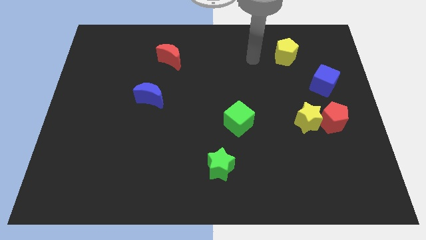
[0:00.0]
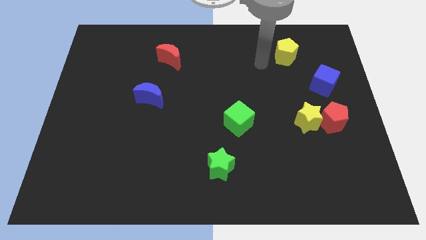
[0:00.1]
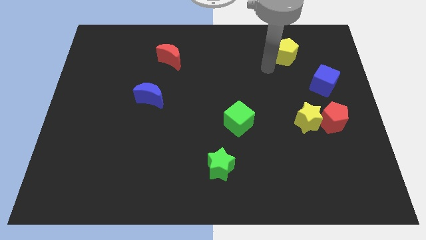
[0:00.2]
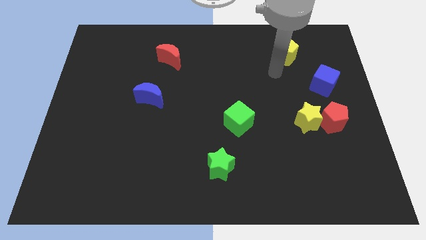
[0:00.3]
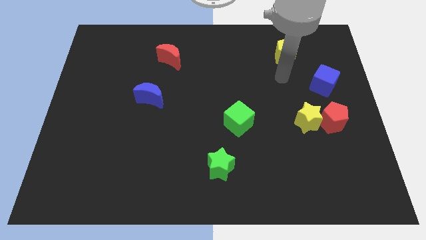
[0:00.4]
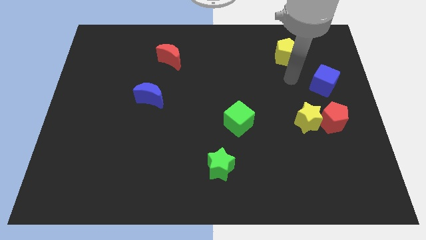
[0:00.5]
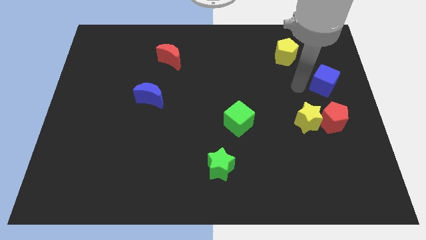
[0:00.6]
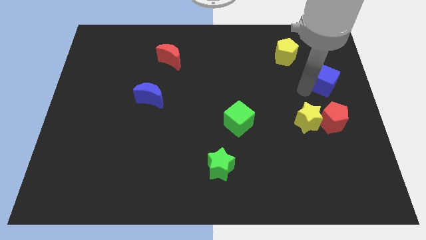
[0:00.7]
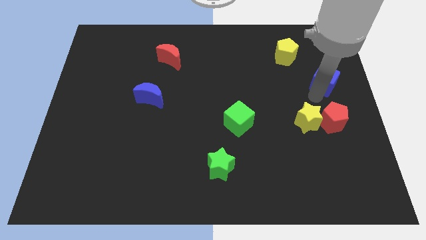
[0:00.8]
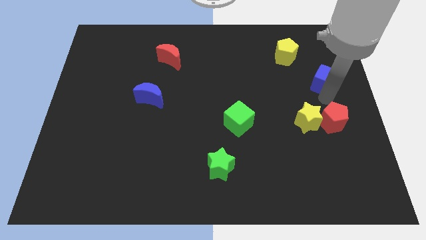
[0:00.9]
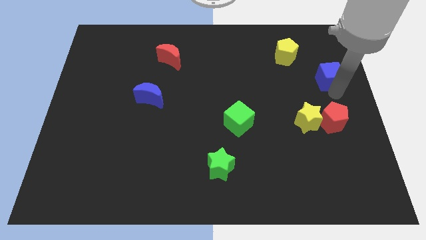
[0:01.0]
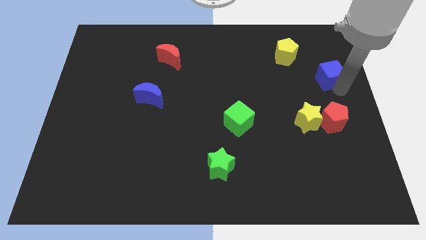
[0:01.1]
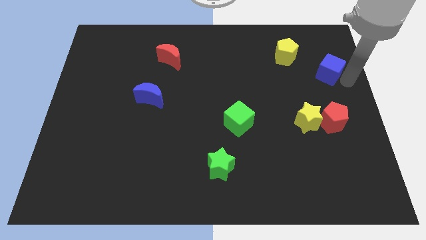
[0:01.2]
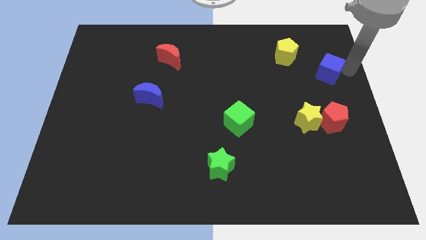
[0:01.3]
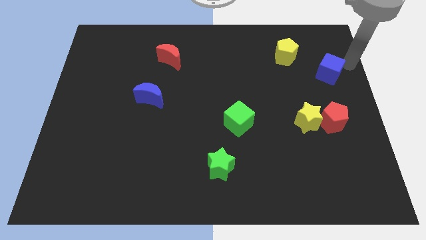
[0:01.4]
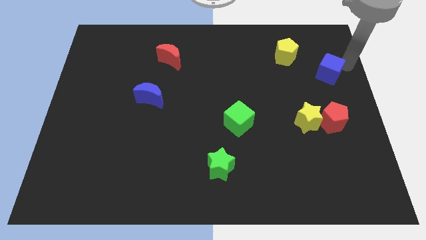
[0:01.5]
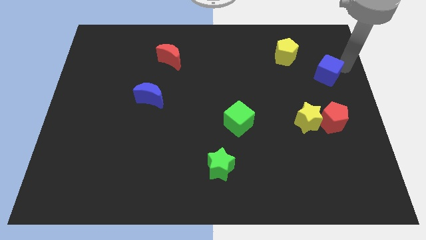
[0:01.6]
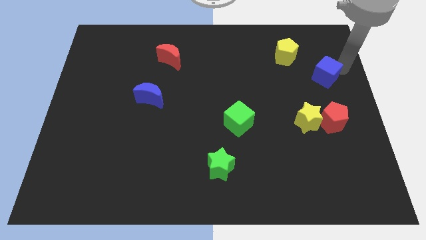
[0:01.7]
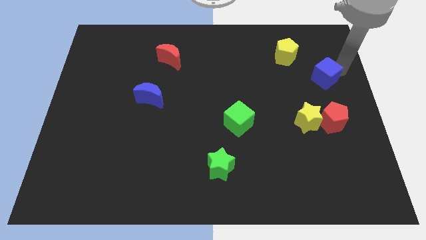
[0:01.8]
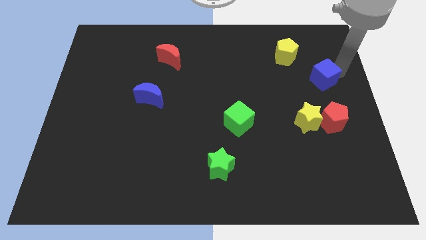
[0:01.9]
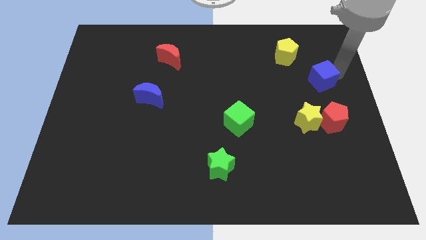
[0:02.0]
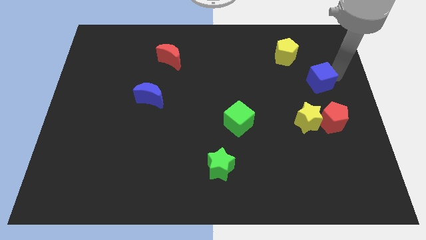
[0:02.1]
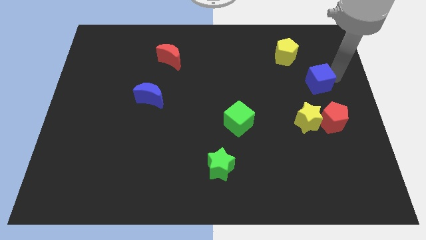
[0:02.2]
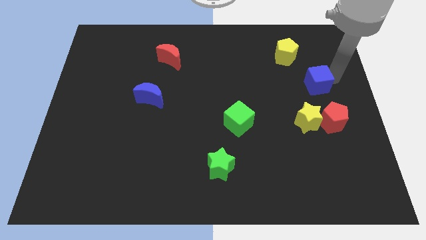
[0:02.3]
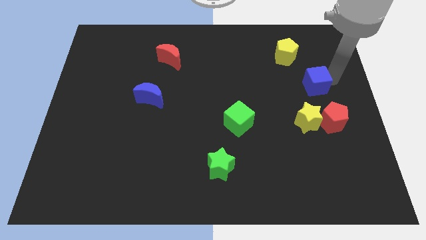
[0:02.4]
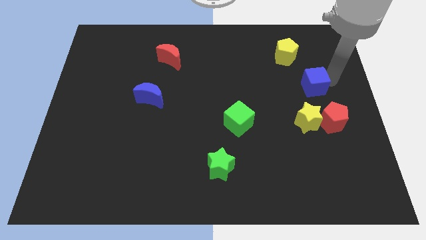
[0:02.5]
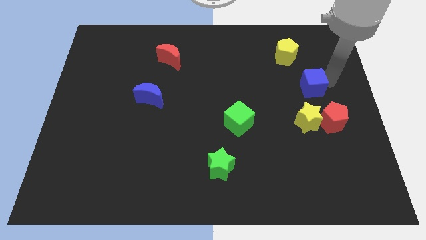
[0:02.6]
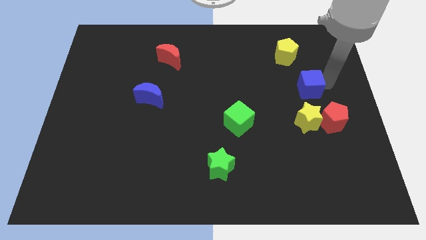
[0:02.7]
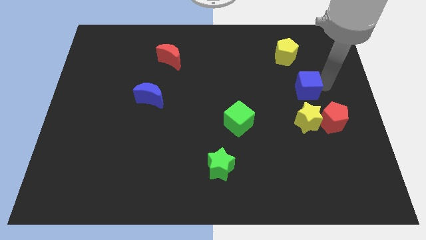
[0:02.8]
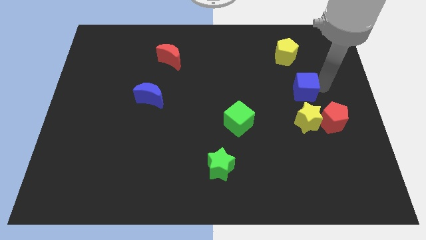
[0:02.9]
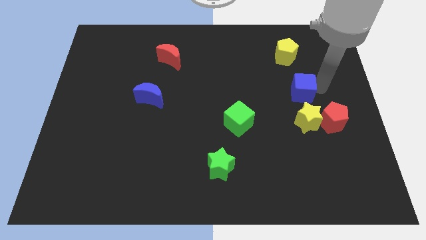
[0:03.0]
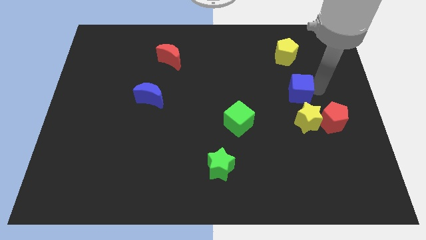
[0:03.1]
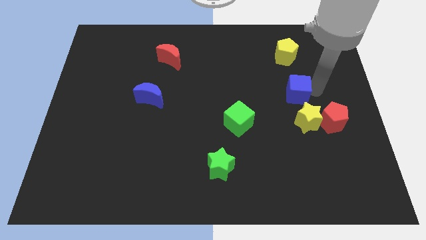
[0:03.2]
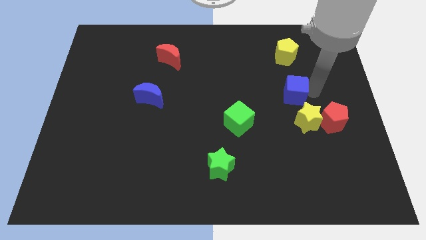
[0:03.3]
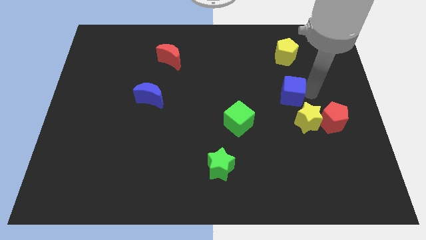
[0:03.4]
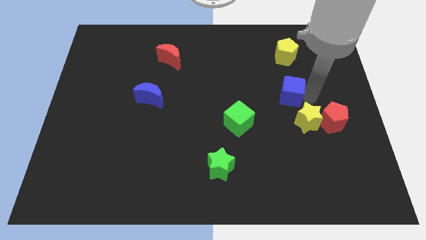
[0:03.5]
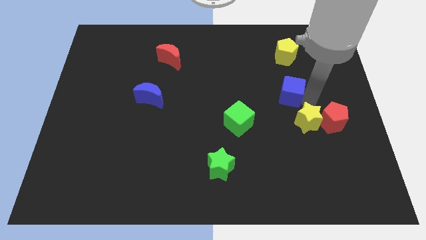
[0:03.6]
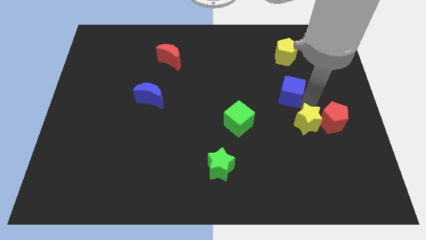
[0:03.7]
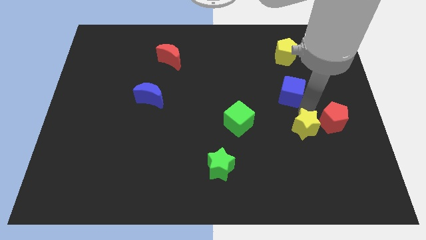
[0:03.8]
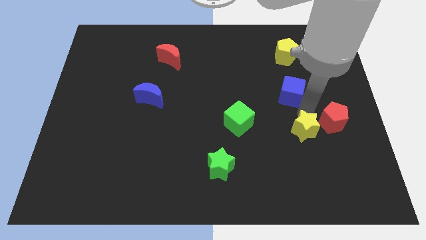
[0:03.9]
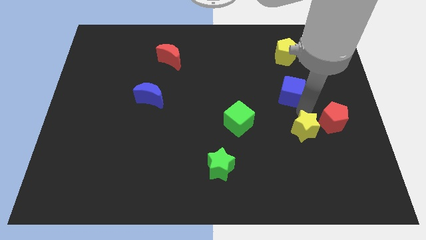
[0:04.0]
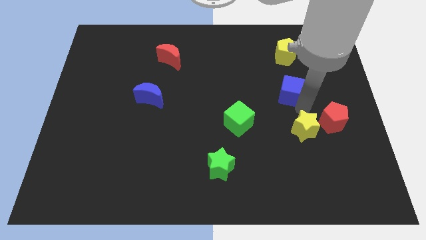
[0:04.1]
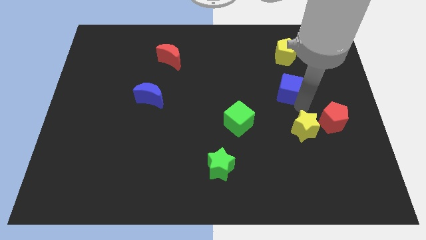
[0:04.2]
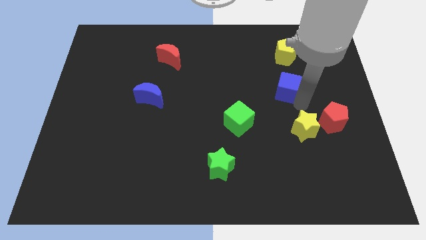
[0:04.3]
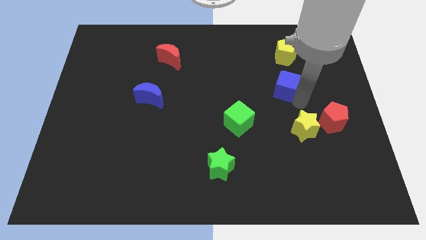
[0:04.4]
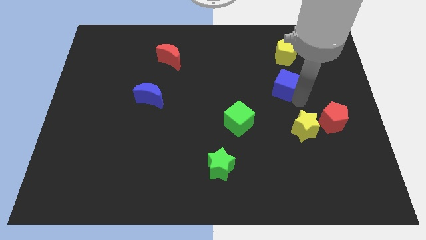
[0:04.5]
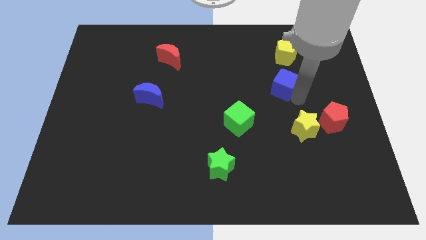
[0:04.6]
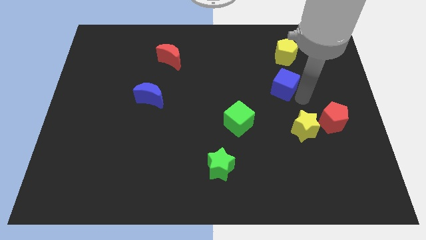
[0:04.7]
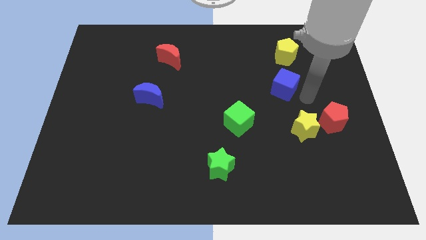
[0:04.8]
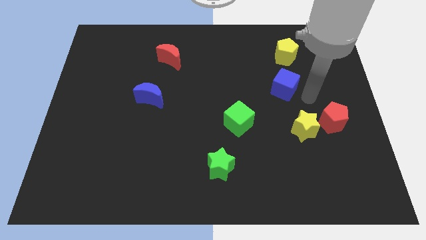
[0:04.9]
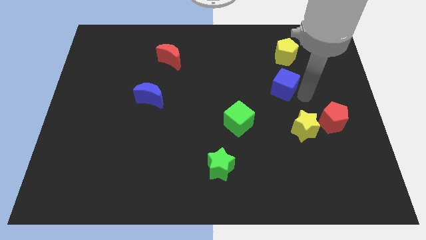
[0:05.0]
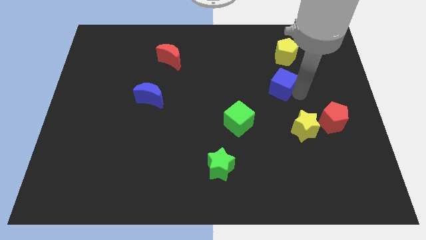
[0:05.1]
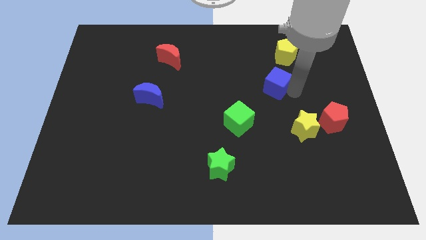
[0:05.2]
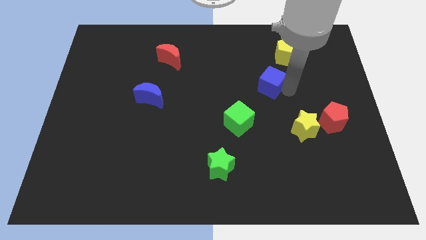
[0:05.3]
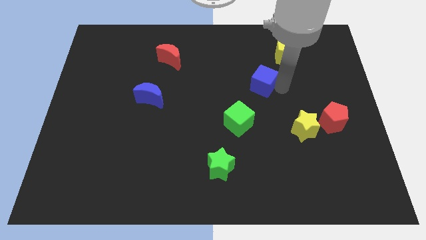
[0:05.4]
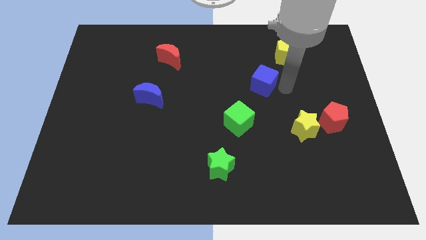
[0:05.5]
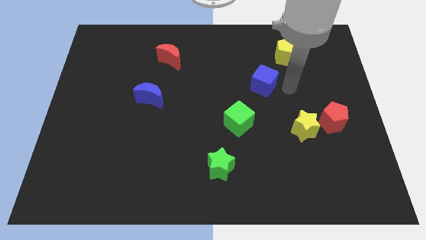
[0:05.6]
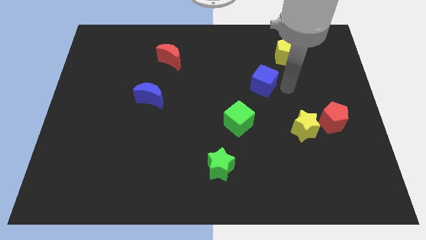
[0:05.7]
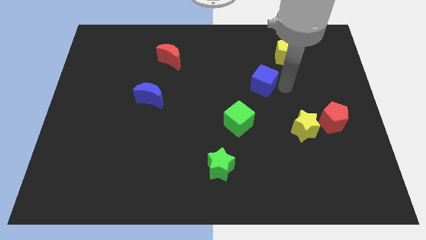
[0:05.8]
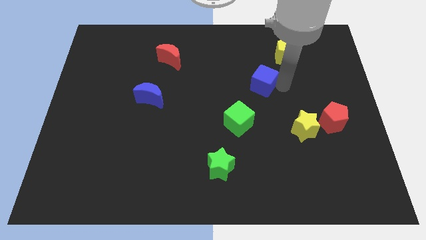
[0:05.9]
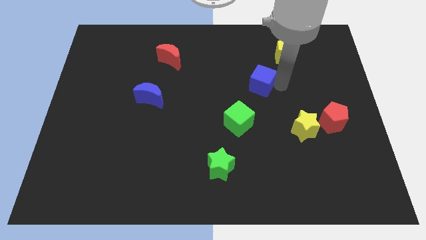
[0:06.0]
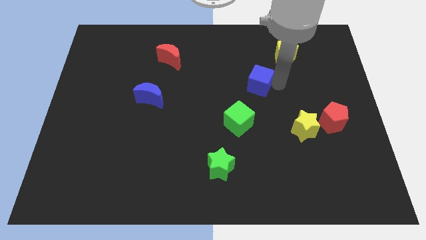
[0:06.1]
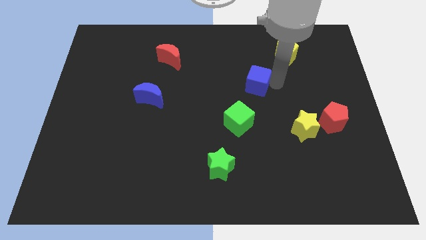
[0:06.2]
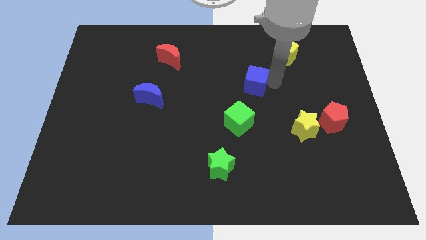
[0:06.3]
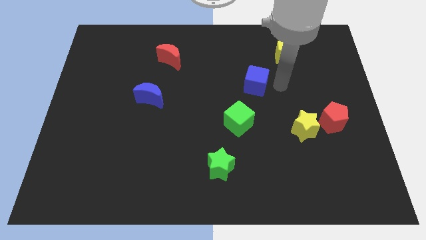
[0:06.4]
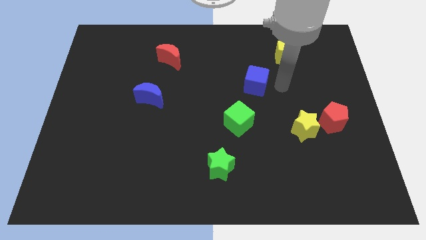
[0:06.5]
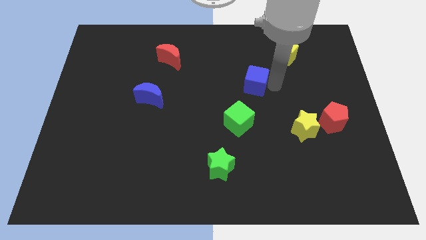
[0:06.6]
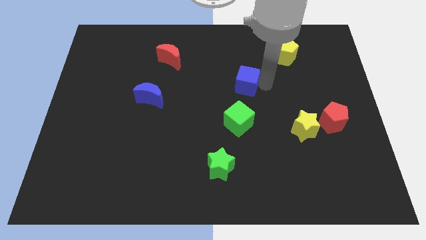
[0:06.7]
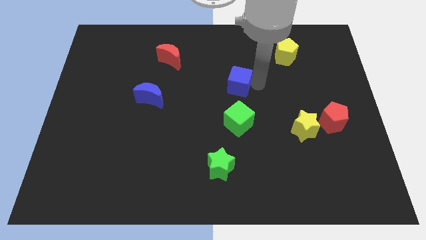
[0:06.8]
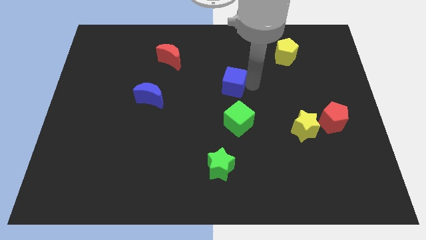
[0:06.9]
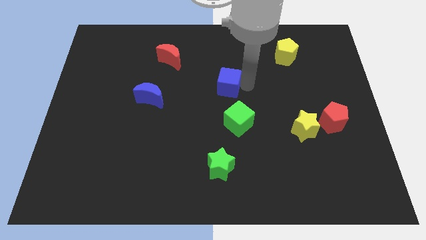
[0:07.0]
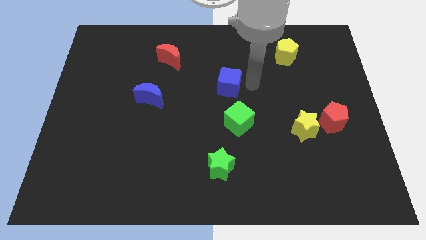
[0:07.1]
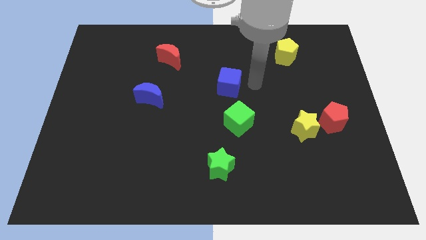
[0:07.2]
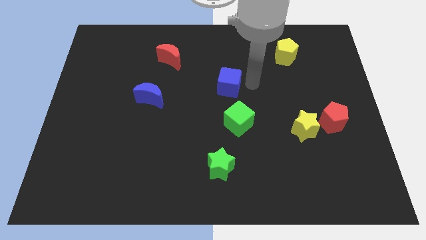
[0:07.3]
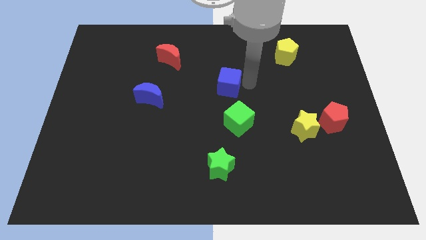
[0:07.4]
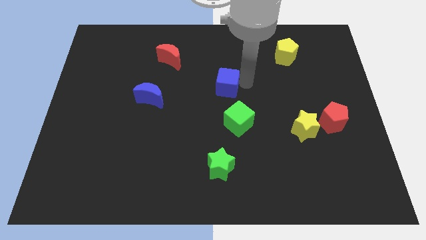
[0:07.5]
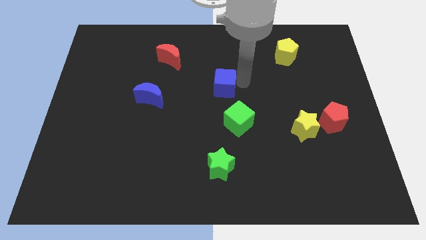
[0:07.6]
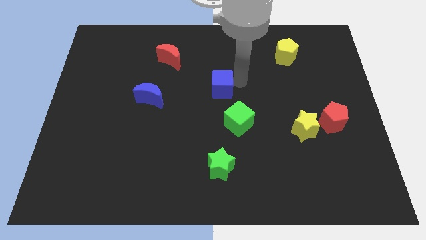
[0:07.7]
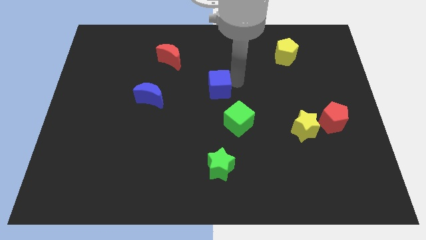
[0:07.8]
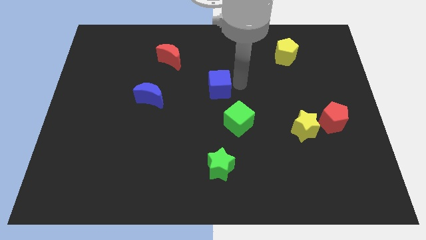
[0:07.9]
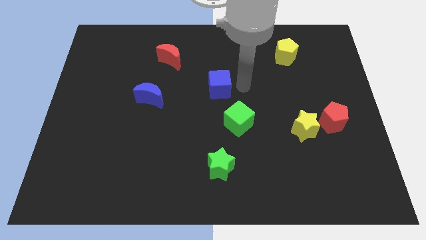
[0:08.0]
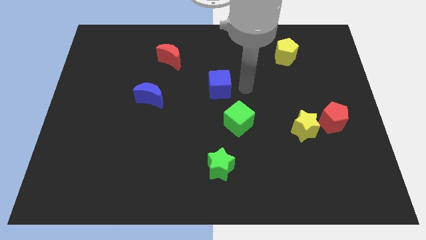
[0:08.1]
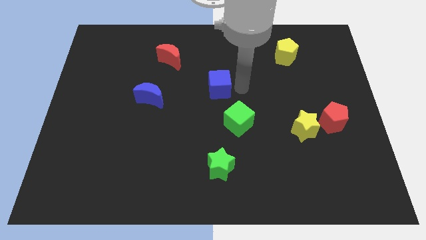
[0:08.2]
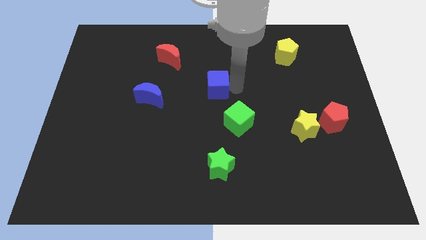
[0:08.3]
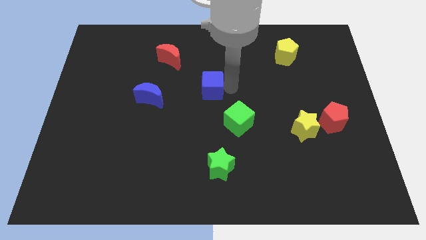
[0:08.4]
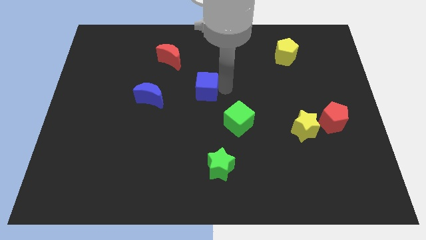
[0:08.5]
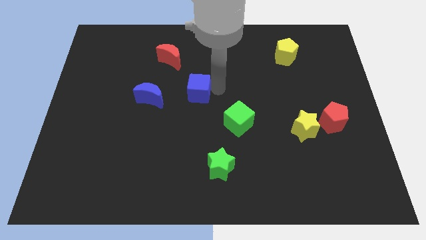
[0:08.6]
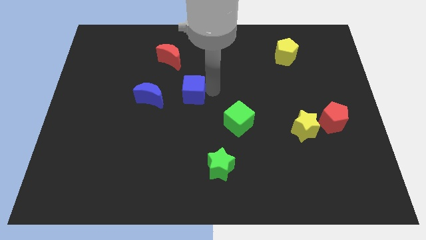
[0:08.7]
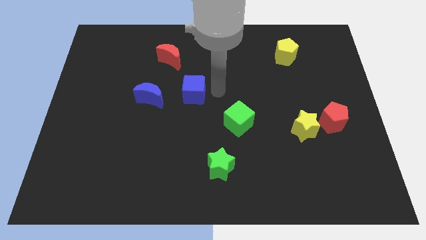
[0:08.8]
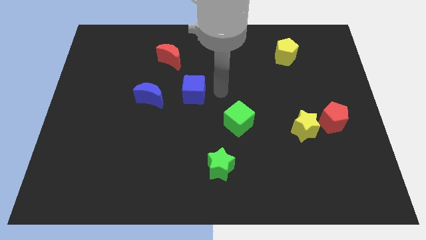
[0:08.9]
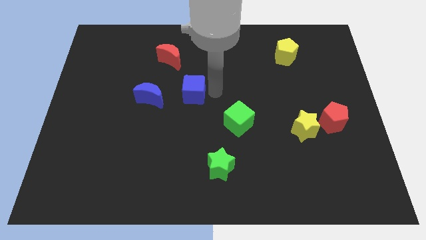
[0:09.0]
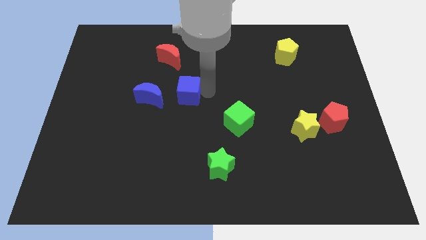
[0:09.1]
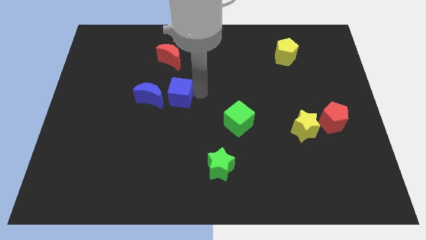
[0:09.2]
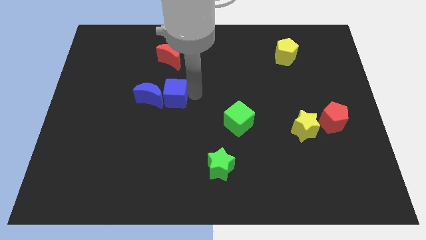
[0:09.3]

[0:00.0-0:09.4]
push the blue cube to the blue moon
